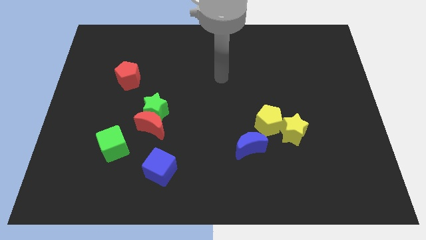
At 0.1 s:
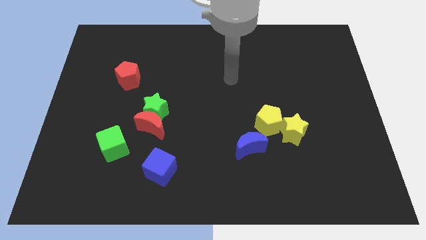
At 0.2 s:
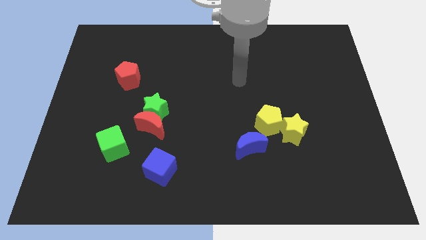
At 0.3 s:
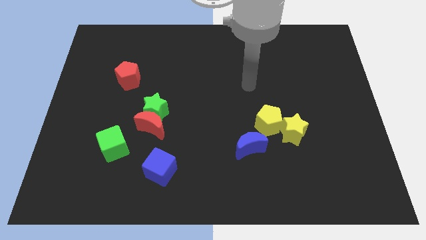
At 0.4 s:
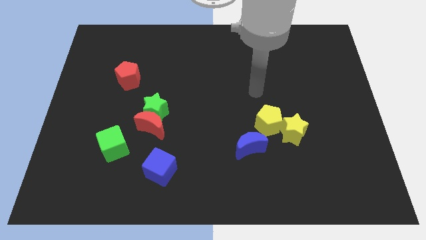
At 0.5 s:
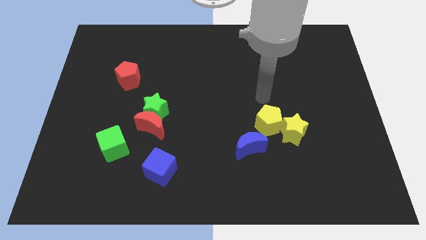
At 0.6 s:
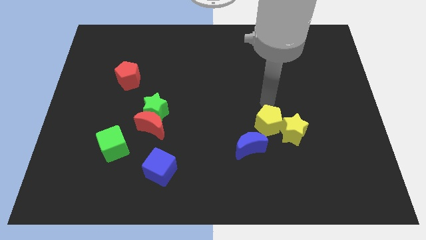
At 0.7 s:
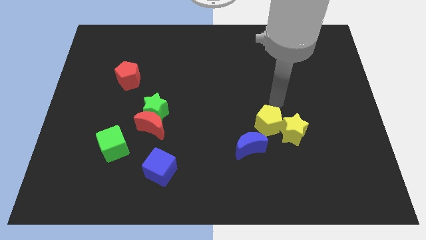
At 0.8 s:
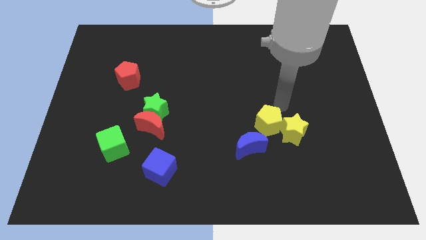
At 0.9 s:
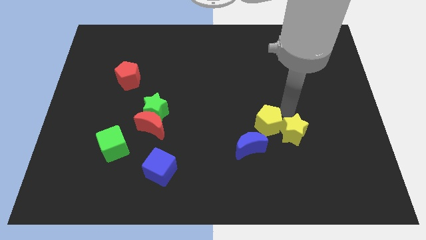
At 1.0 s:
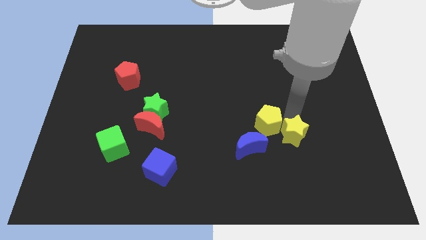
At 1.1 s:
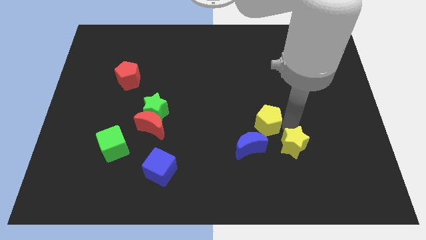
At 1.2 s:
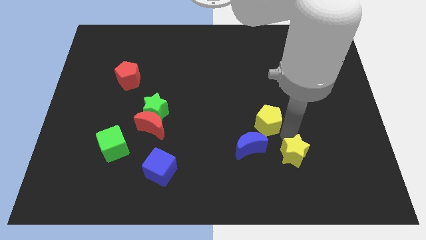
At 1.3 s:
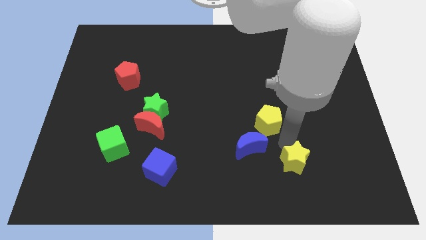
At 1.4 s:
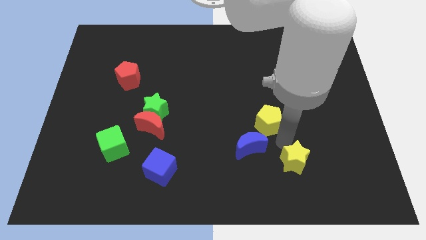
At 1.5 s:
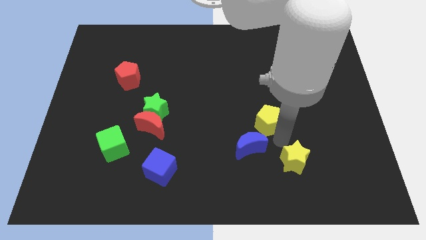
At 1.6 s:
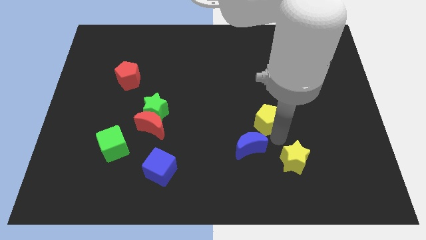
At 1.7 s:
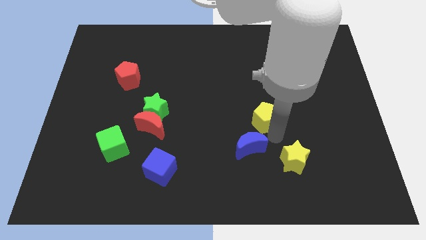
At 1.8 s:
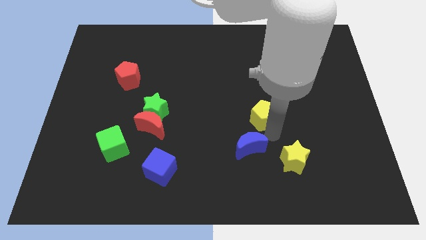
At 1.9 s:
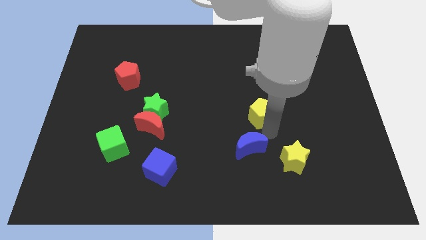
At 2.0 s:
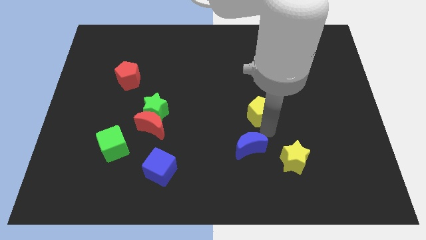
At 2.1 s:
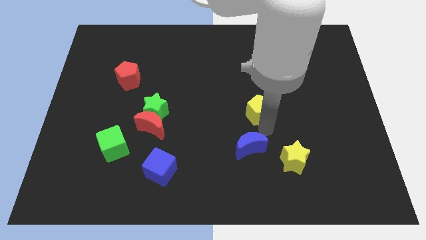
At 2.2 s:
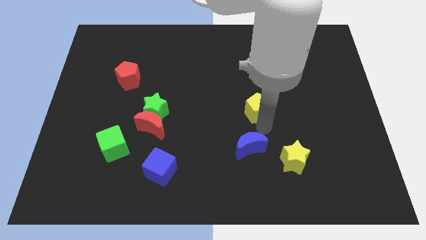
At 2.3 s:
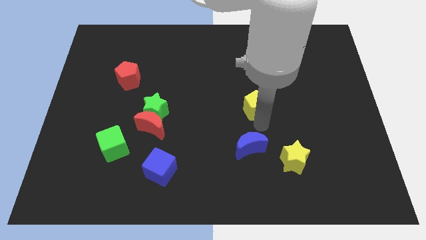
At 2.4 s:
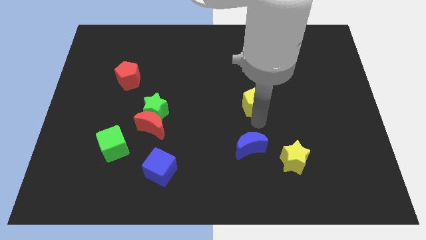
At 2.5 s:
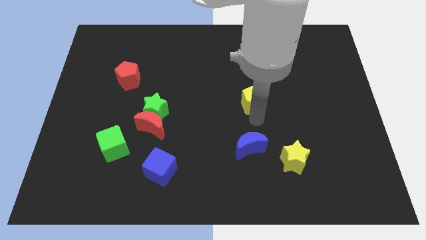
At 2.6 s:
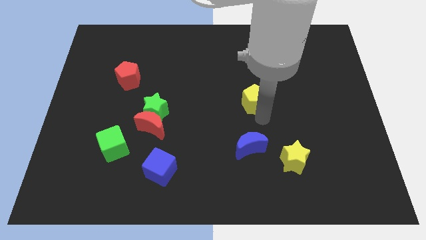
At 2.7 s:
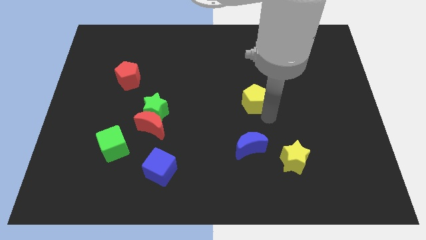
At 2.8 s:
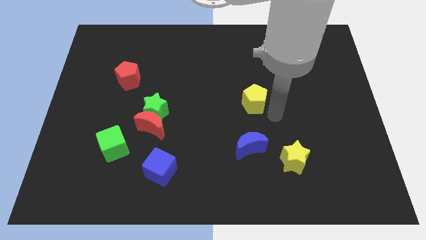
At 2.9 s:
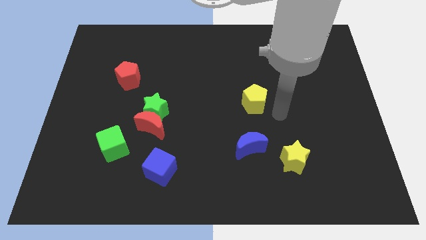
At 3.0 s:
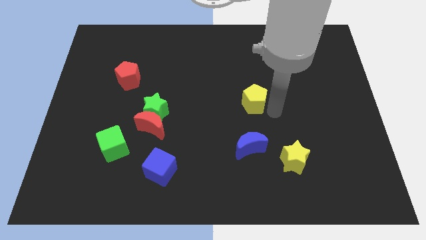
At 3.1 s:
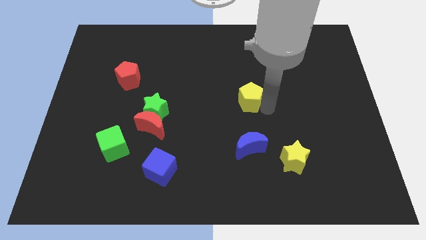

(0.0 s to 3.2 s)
slide the yellow pentagon a little upwards and left diagonally

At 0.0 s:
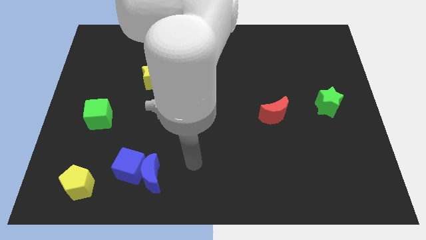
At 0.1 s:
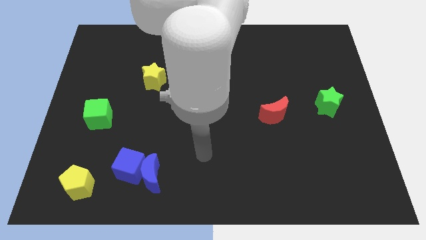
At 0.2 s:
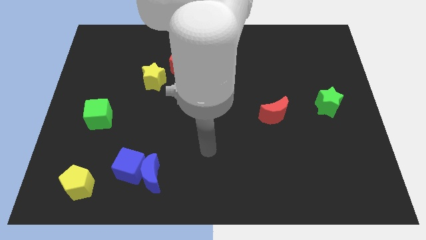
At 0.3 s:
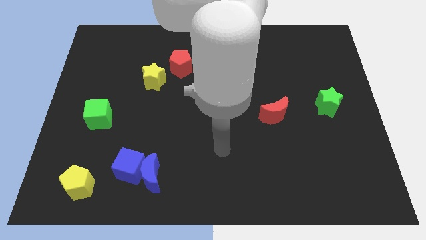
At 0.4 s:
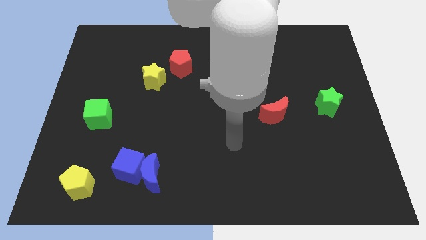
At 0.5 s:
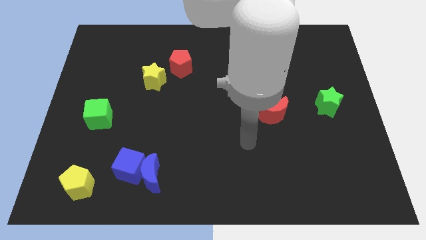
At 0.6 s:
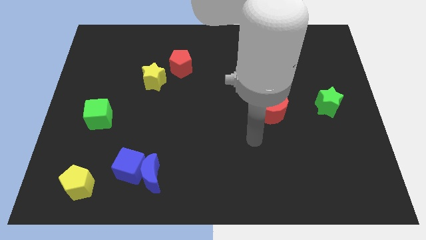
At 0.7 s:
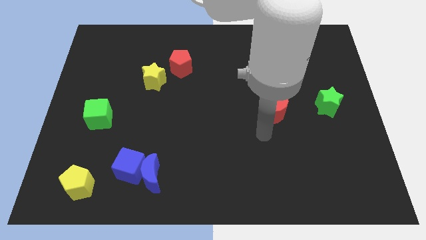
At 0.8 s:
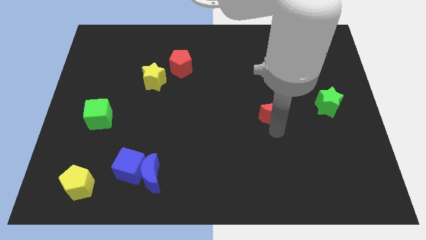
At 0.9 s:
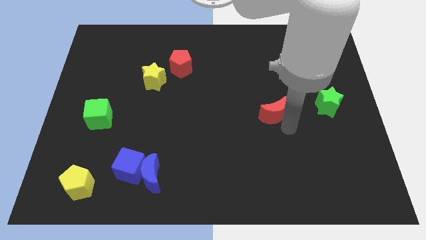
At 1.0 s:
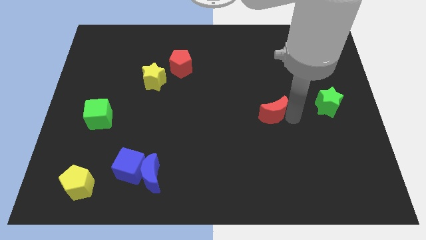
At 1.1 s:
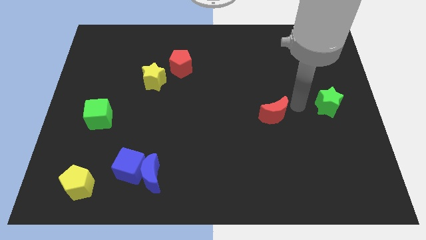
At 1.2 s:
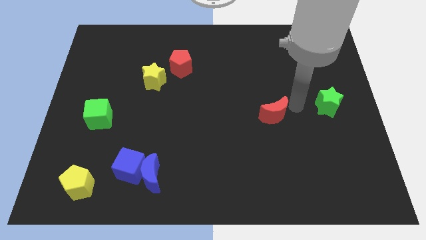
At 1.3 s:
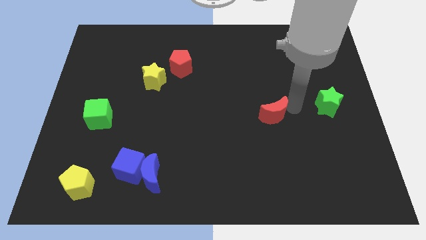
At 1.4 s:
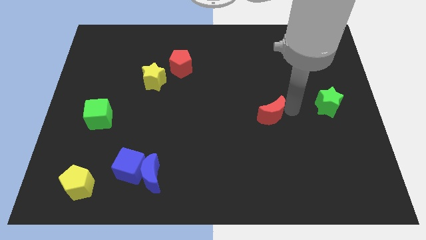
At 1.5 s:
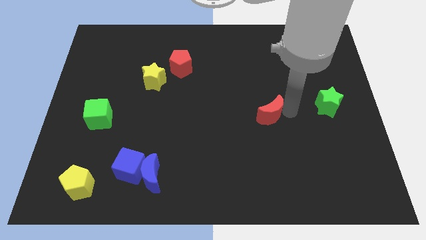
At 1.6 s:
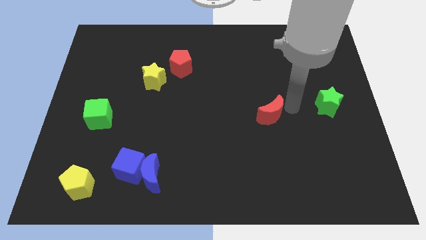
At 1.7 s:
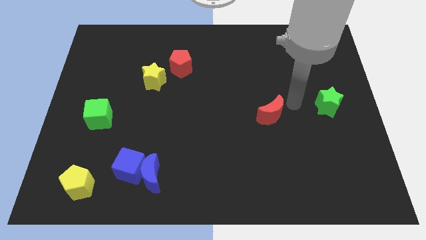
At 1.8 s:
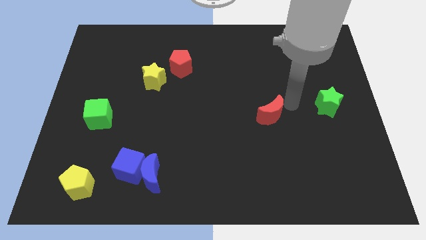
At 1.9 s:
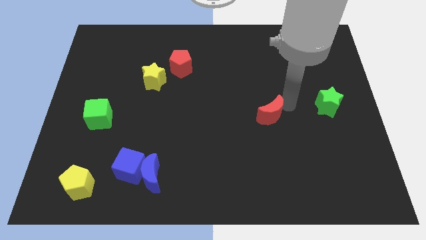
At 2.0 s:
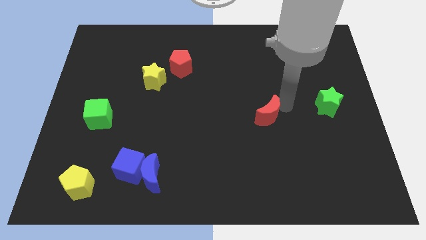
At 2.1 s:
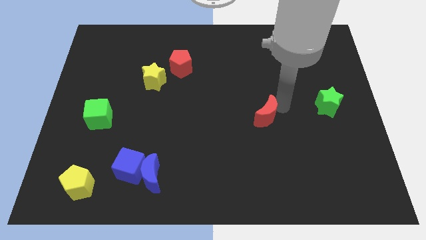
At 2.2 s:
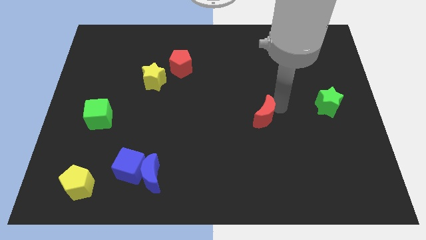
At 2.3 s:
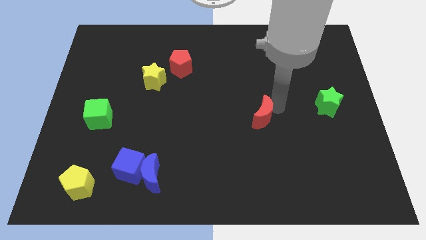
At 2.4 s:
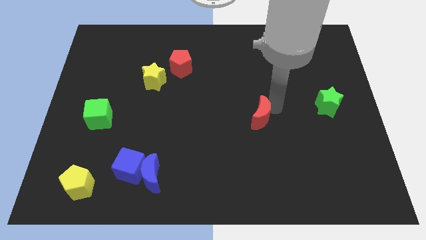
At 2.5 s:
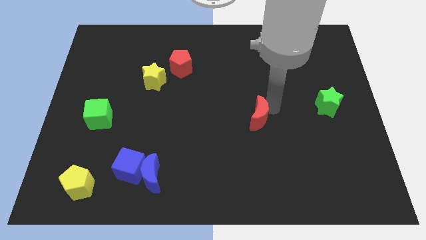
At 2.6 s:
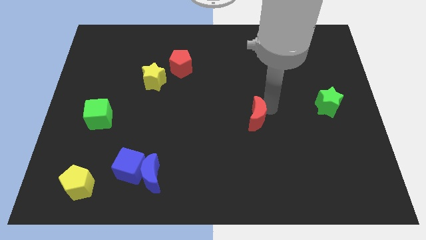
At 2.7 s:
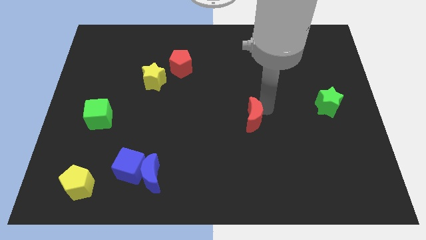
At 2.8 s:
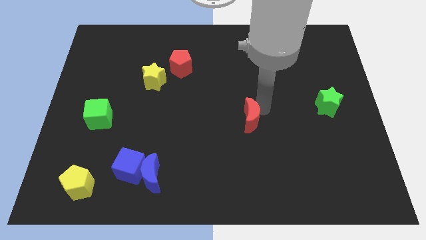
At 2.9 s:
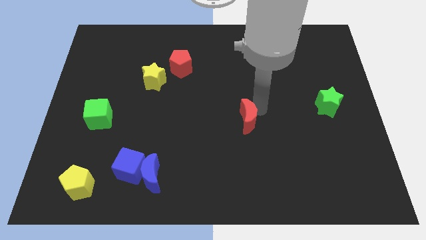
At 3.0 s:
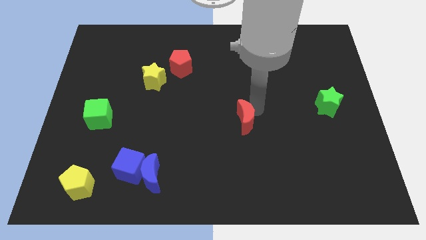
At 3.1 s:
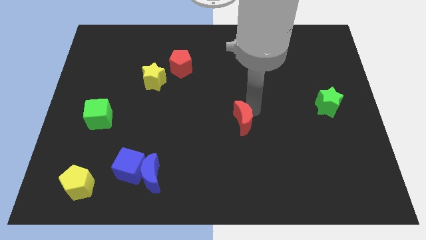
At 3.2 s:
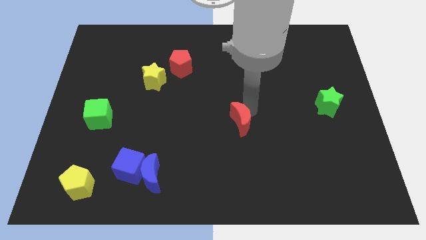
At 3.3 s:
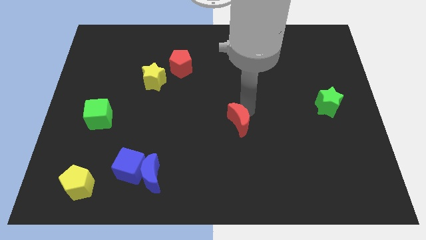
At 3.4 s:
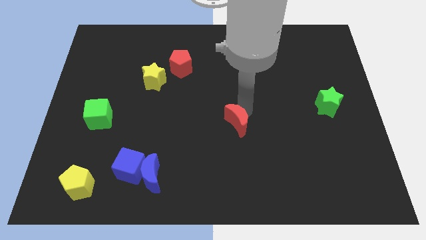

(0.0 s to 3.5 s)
slightly push the red moon downwards and then to the left

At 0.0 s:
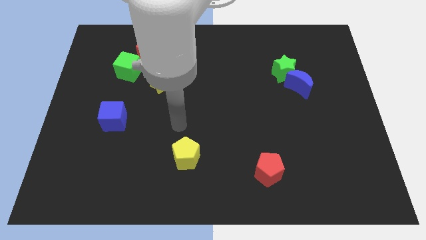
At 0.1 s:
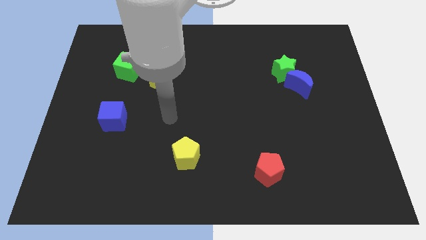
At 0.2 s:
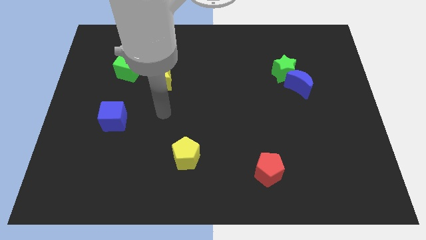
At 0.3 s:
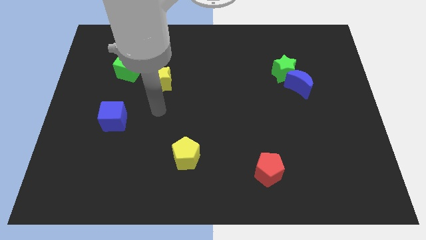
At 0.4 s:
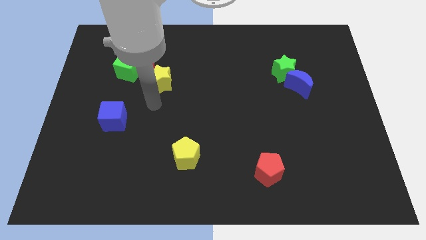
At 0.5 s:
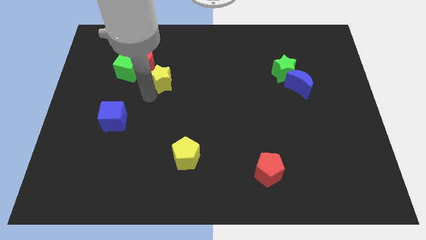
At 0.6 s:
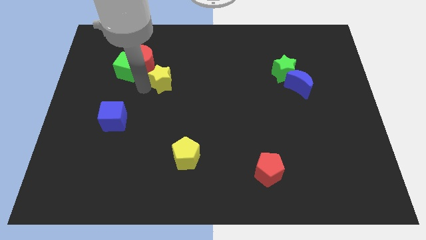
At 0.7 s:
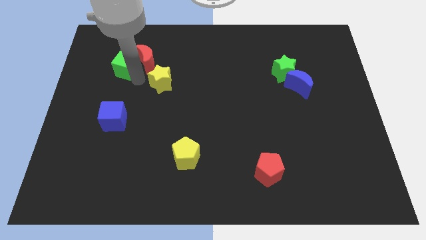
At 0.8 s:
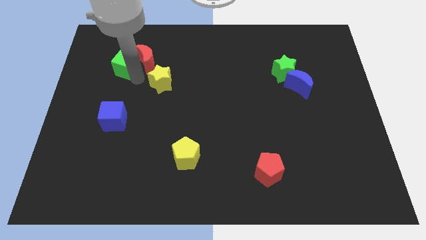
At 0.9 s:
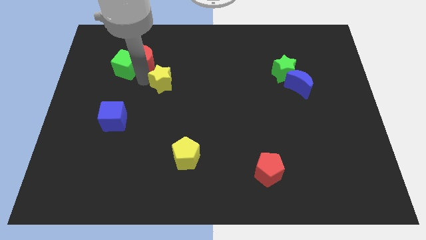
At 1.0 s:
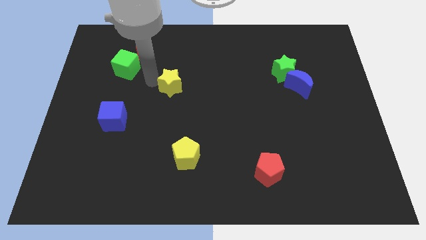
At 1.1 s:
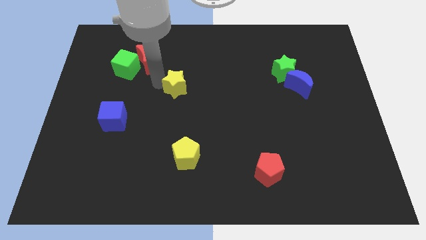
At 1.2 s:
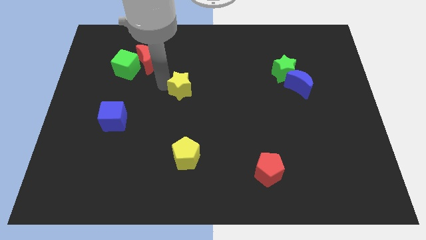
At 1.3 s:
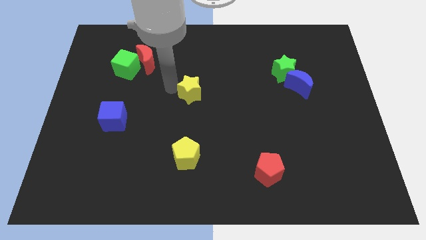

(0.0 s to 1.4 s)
slightly push the yellow star to the right

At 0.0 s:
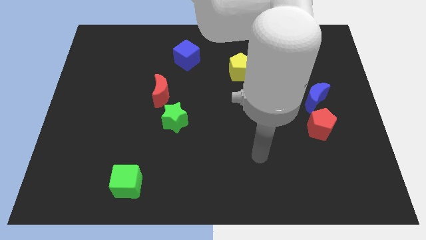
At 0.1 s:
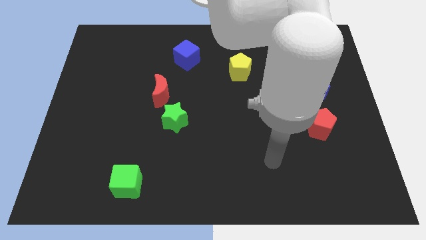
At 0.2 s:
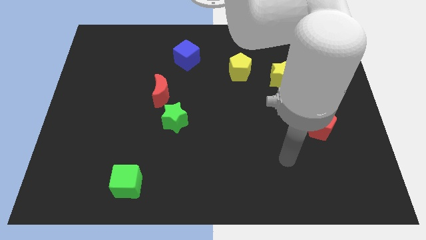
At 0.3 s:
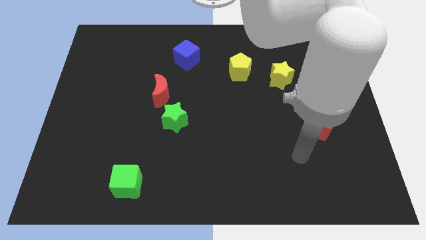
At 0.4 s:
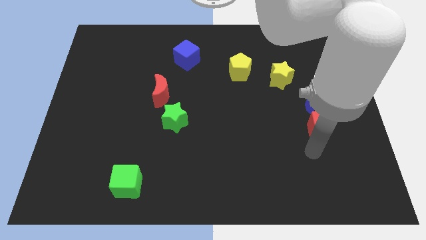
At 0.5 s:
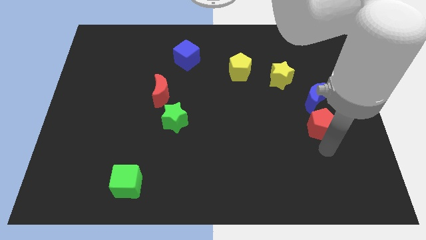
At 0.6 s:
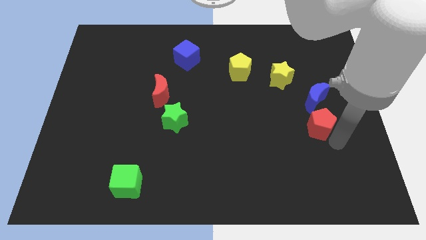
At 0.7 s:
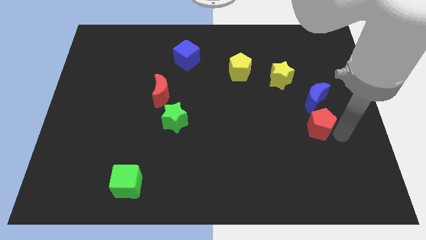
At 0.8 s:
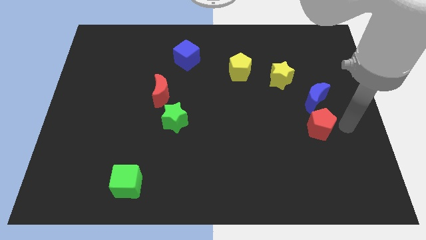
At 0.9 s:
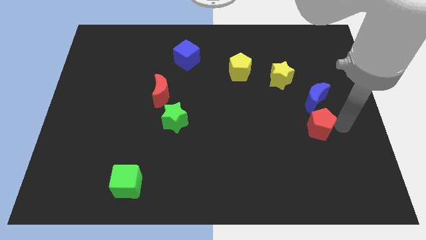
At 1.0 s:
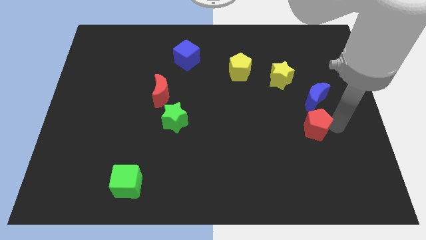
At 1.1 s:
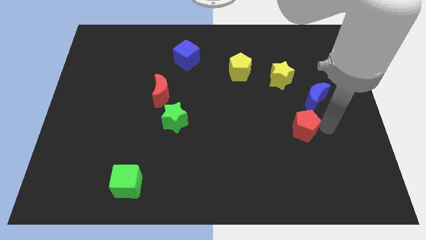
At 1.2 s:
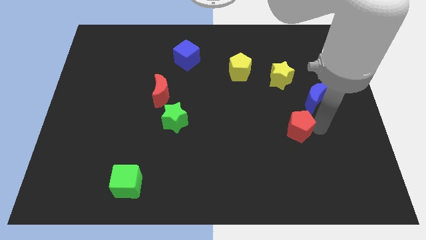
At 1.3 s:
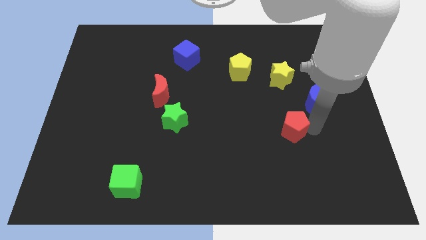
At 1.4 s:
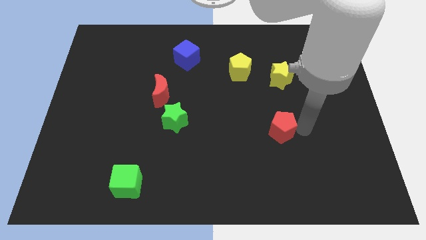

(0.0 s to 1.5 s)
move the red pentagon slightly left
